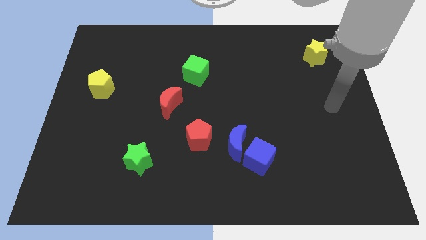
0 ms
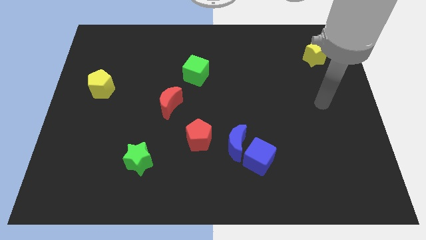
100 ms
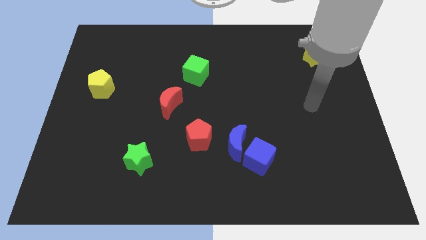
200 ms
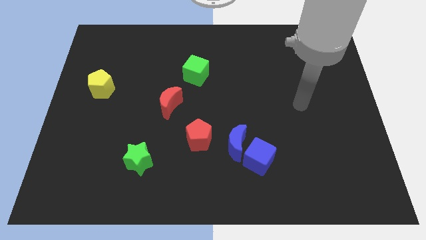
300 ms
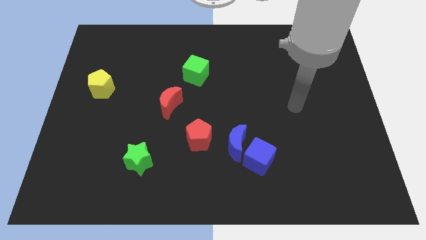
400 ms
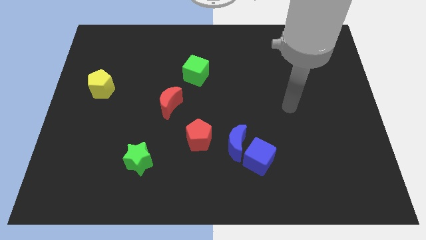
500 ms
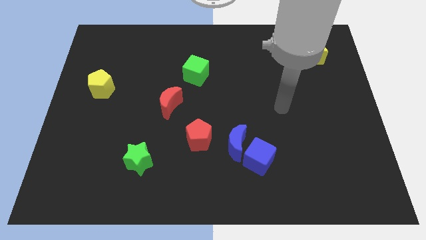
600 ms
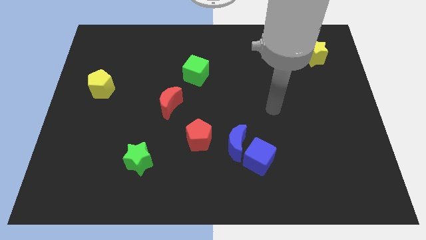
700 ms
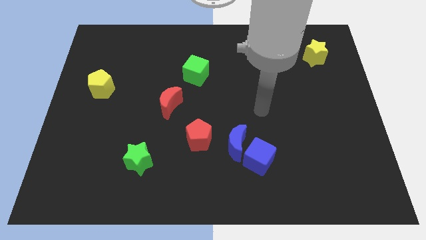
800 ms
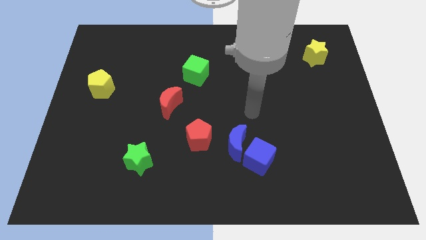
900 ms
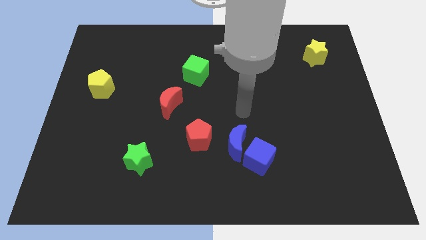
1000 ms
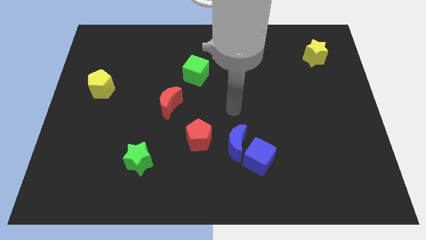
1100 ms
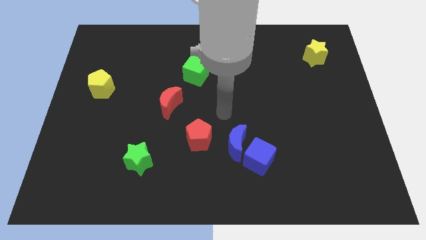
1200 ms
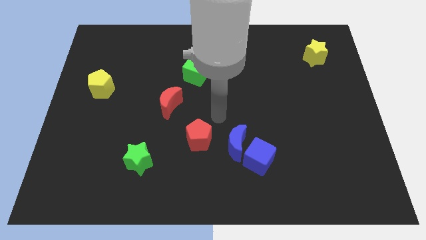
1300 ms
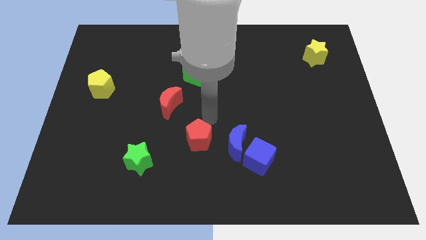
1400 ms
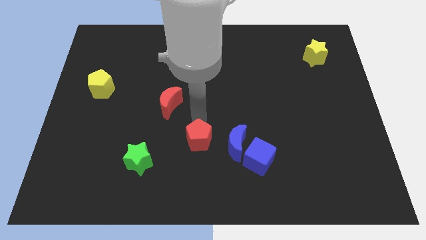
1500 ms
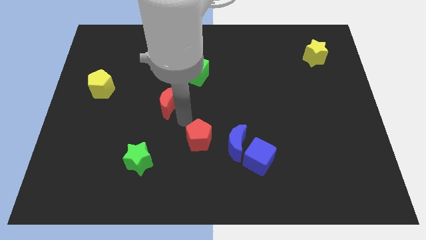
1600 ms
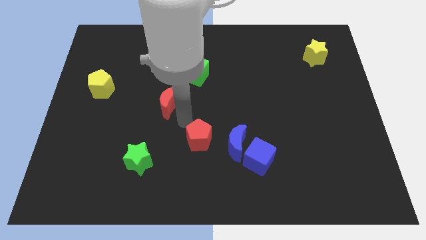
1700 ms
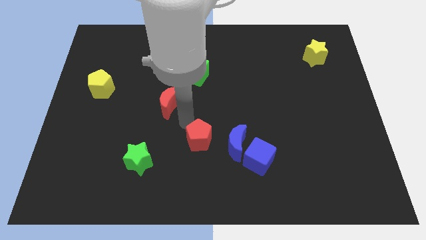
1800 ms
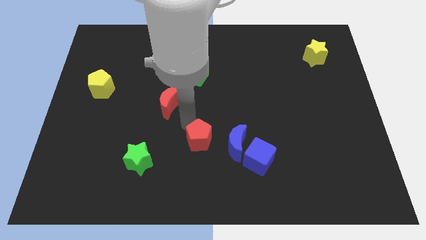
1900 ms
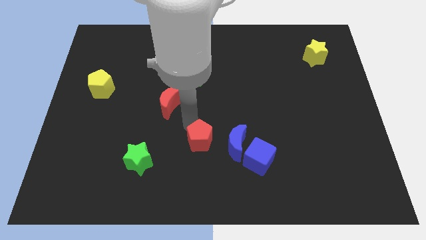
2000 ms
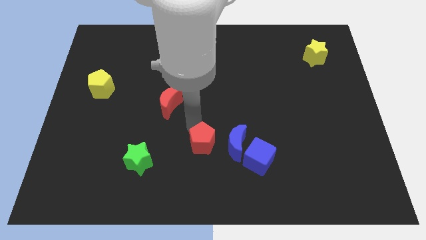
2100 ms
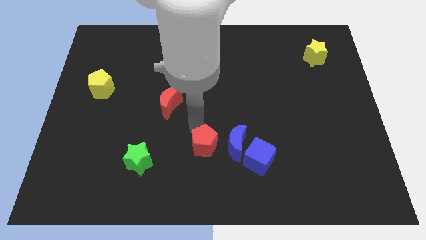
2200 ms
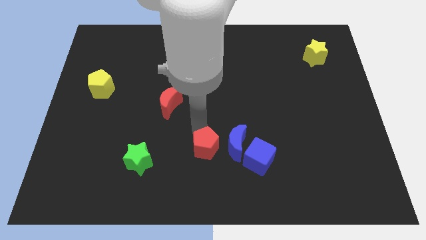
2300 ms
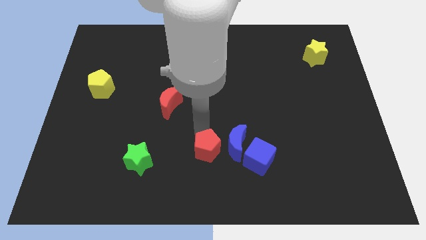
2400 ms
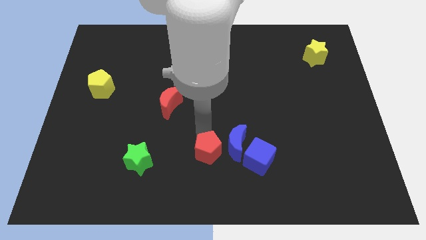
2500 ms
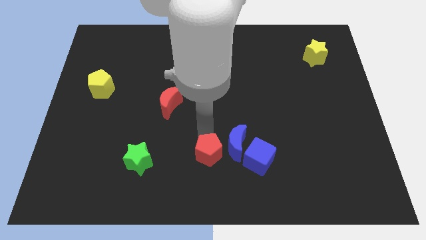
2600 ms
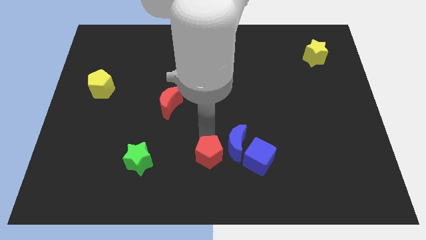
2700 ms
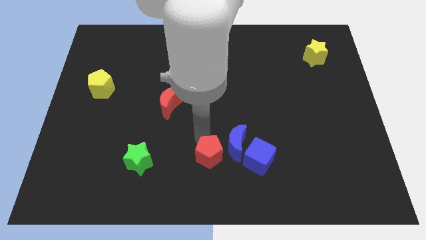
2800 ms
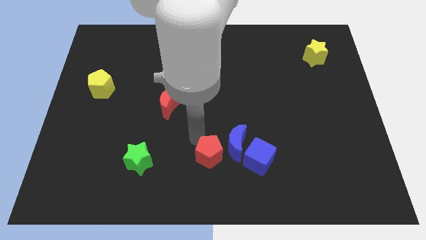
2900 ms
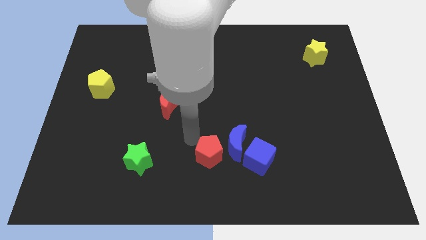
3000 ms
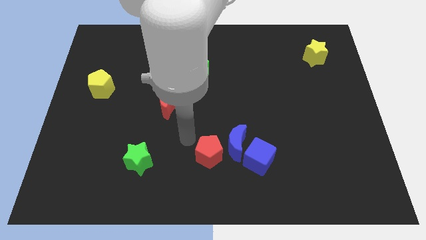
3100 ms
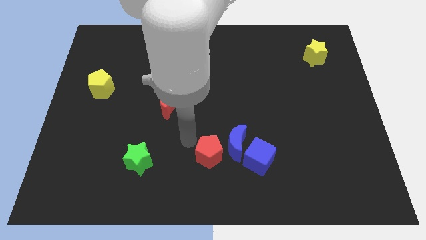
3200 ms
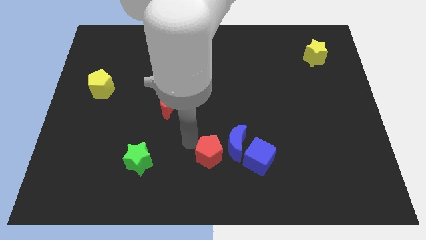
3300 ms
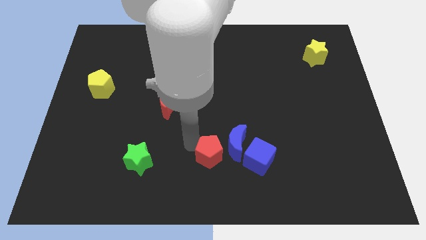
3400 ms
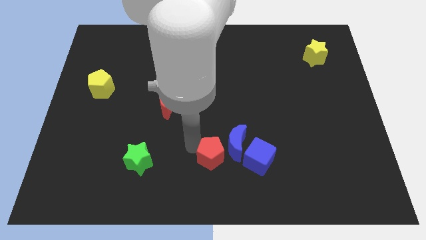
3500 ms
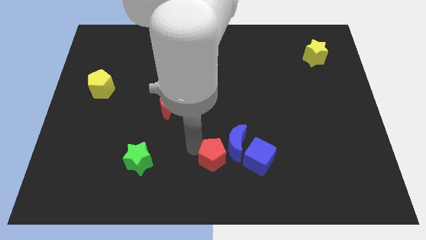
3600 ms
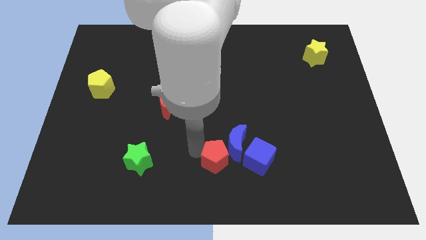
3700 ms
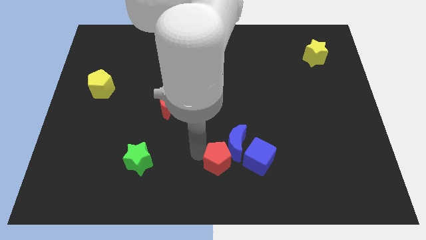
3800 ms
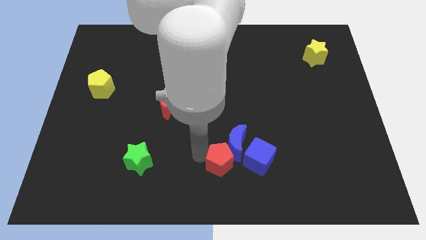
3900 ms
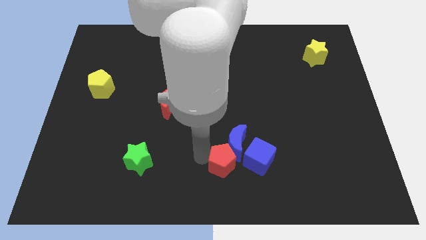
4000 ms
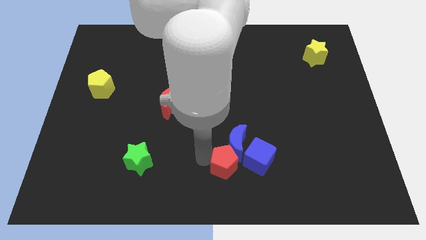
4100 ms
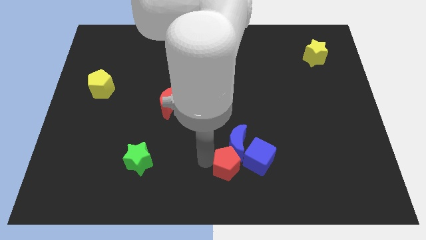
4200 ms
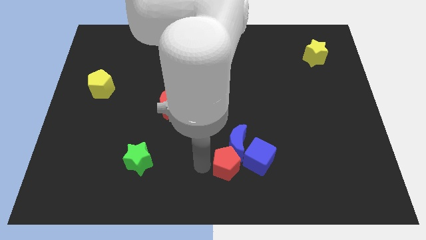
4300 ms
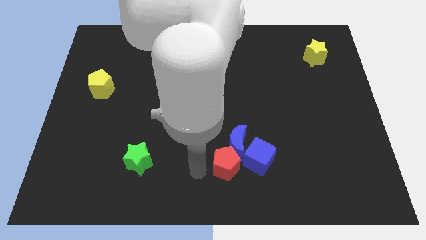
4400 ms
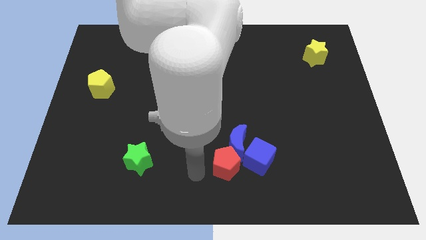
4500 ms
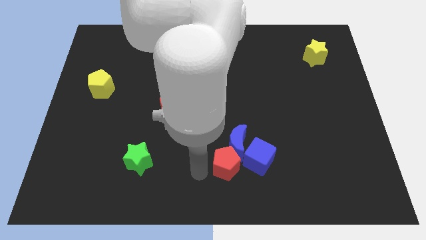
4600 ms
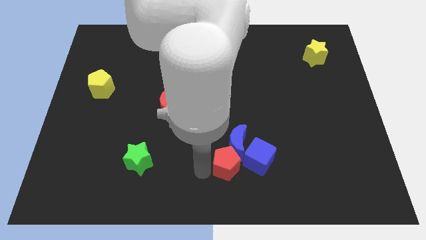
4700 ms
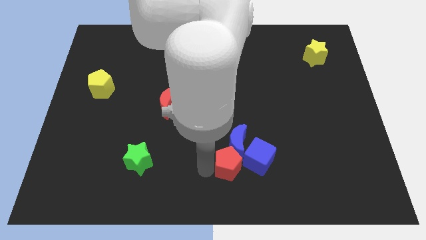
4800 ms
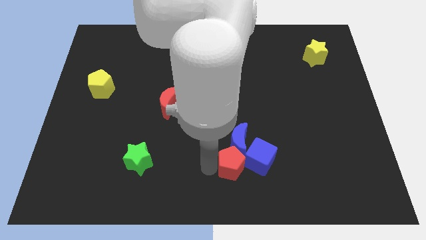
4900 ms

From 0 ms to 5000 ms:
move the red pentagon next to the blue cube

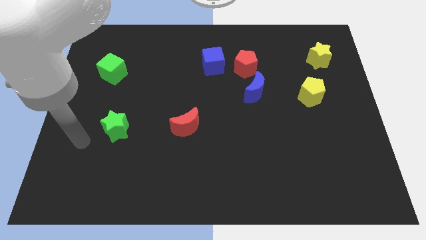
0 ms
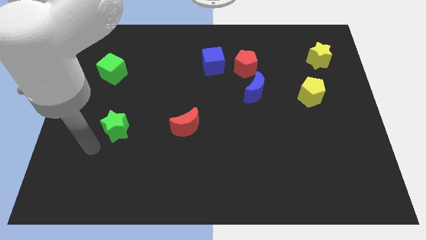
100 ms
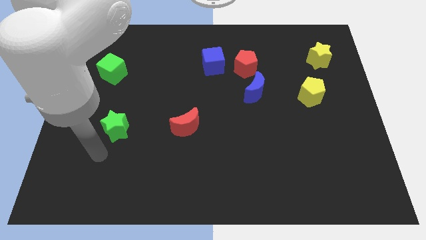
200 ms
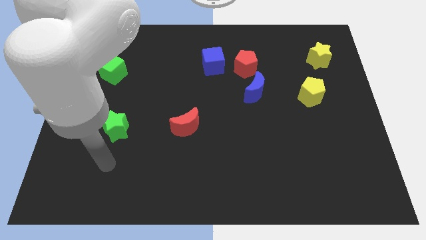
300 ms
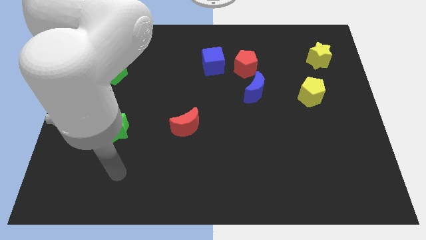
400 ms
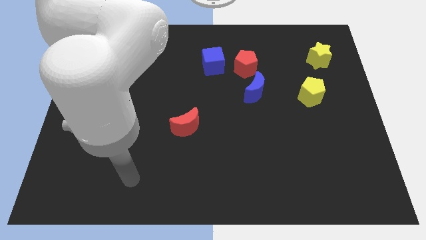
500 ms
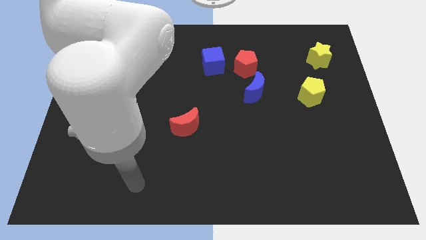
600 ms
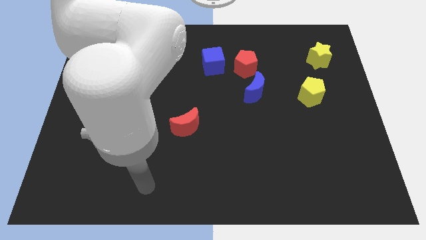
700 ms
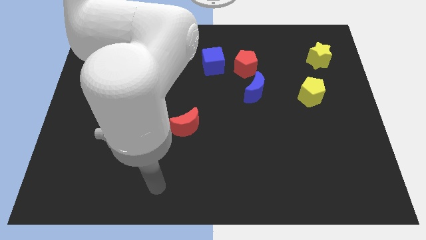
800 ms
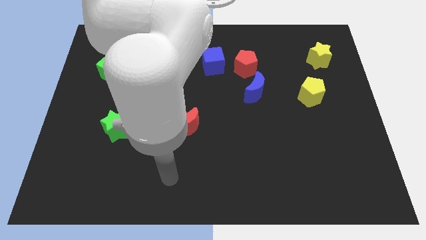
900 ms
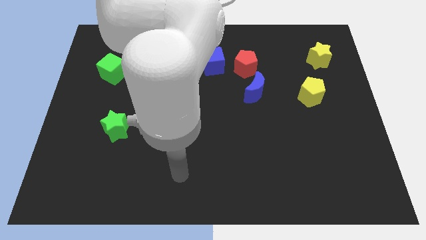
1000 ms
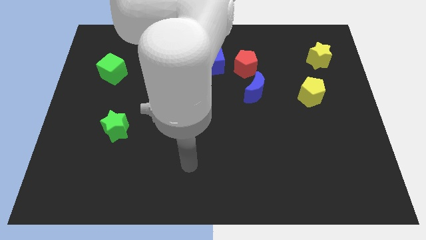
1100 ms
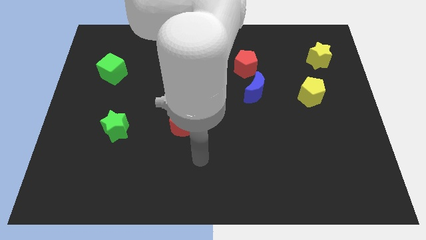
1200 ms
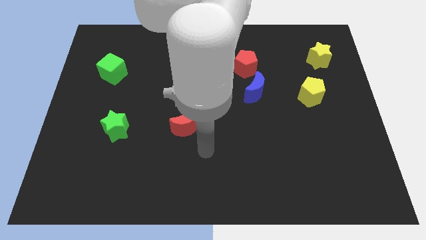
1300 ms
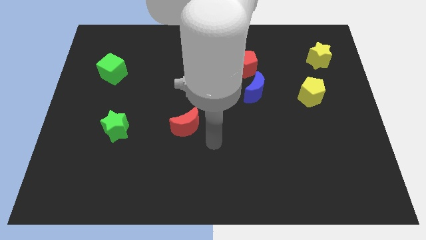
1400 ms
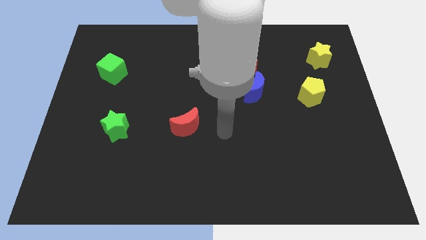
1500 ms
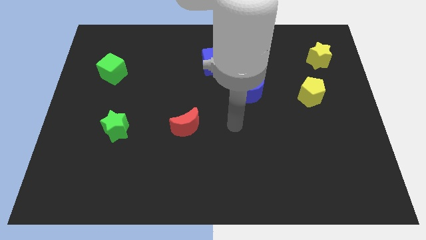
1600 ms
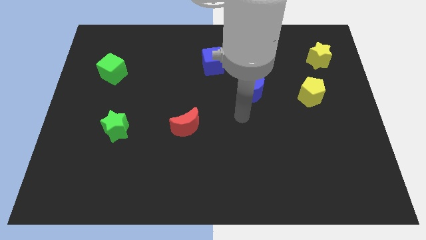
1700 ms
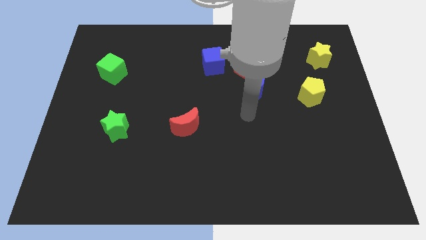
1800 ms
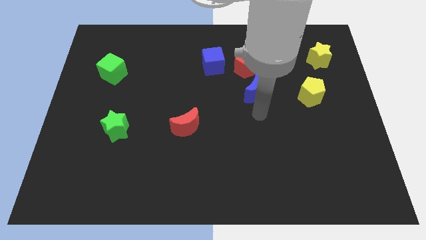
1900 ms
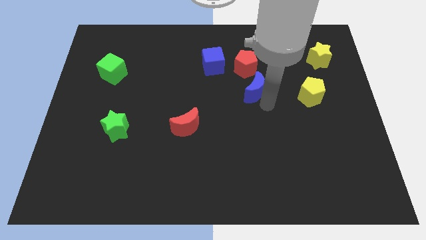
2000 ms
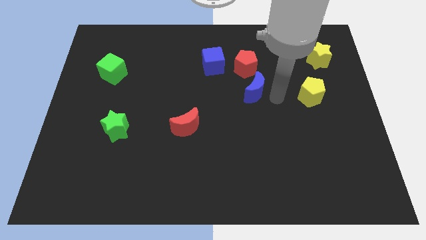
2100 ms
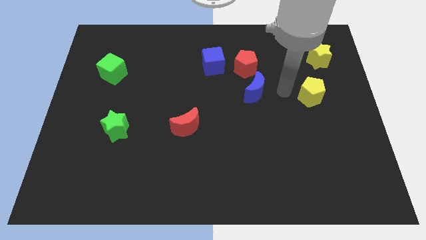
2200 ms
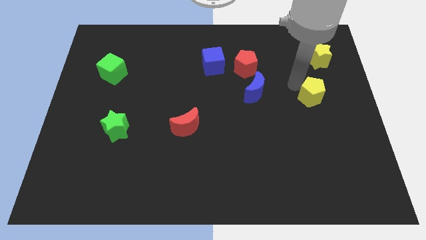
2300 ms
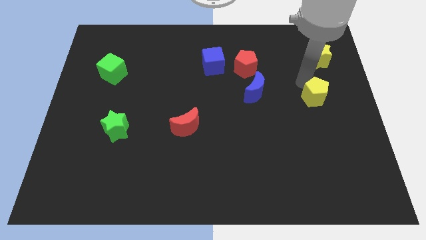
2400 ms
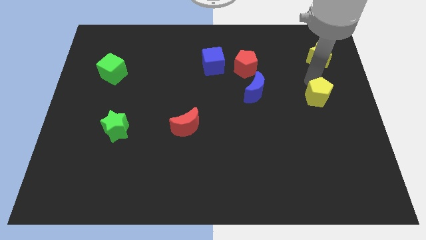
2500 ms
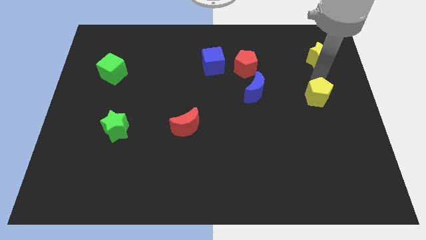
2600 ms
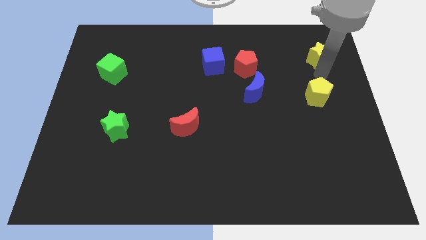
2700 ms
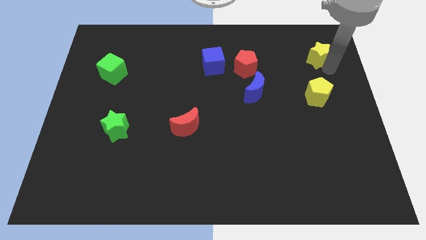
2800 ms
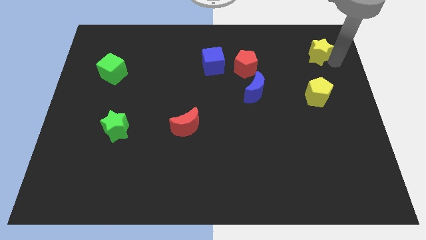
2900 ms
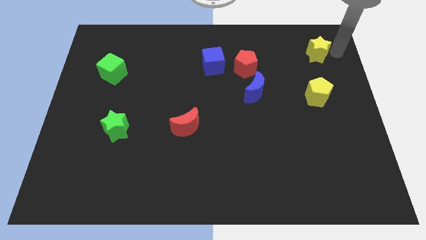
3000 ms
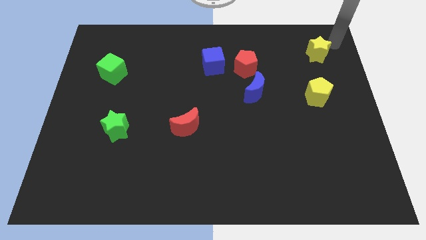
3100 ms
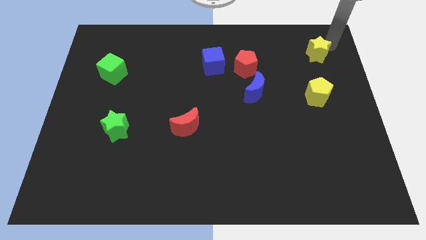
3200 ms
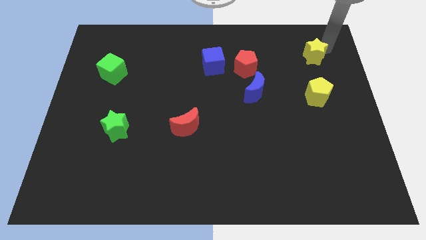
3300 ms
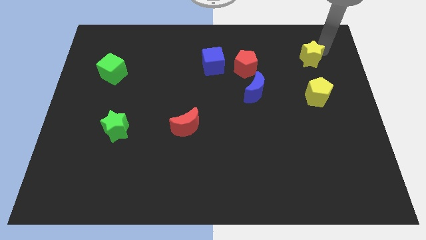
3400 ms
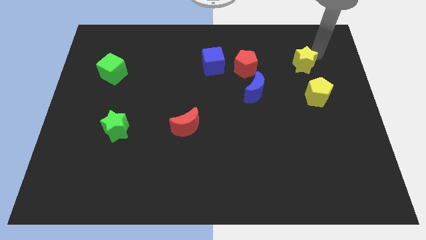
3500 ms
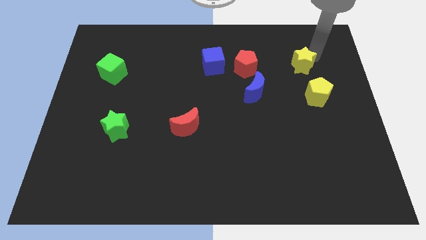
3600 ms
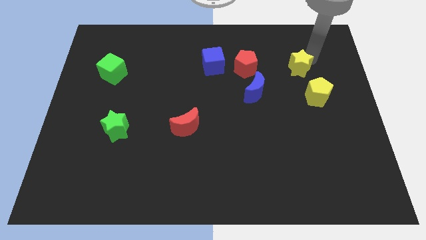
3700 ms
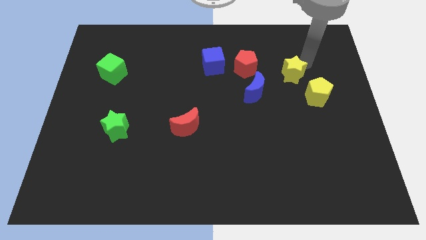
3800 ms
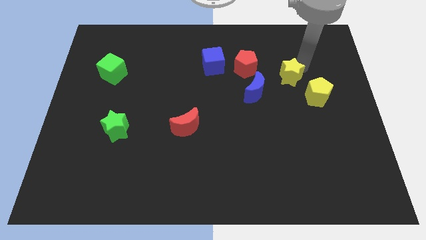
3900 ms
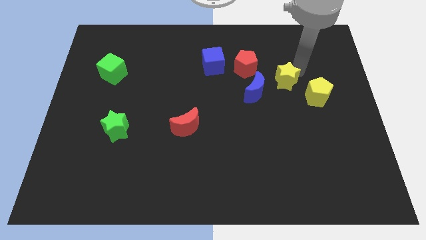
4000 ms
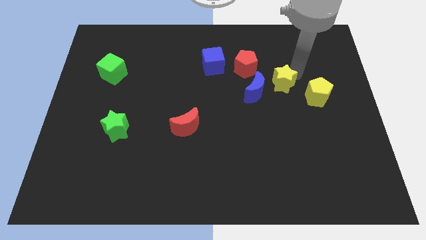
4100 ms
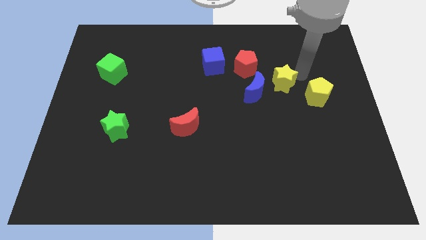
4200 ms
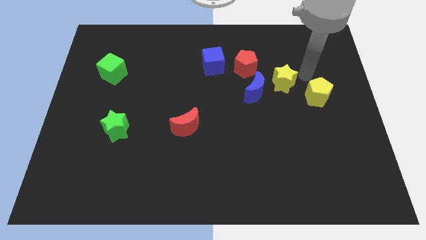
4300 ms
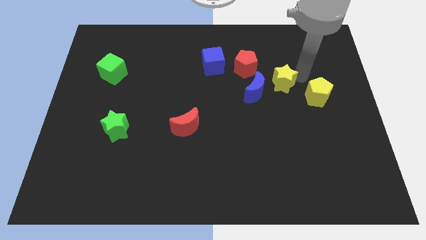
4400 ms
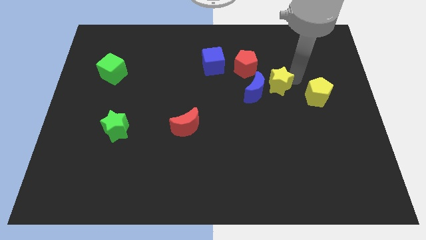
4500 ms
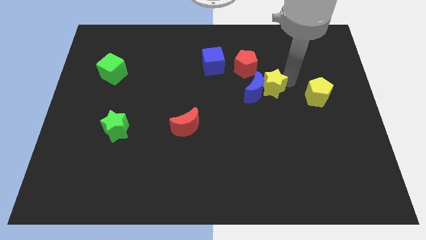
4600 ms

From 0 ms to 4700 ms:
put the yellow star towards the blue moon
